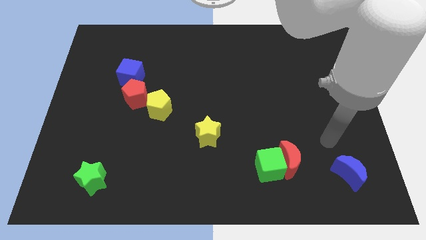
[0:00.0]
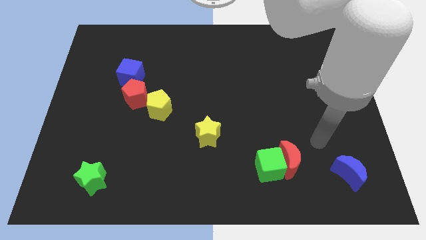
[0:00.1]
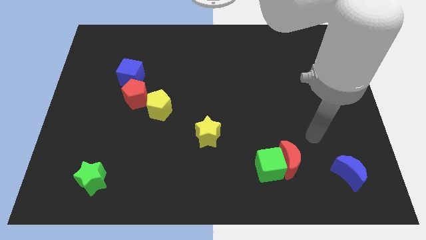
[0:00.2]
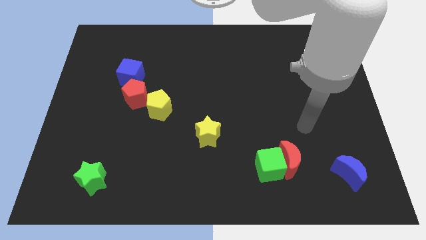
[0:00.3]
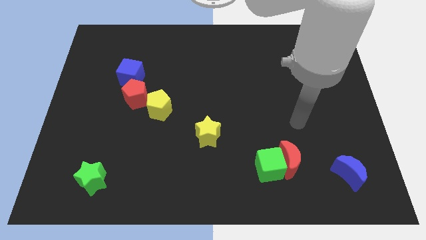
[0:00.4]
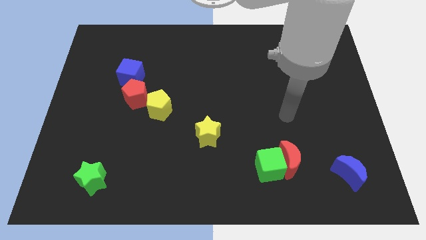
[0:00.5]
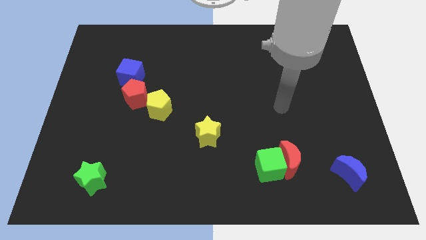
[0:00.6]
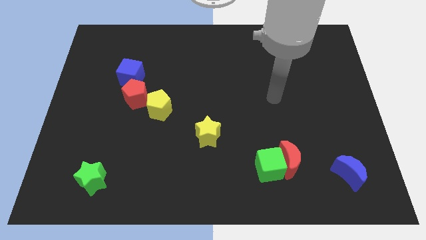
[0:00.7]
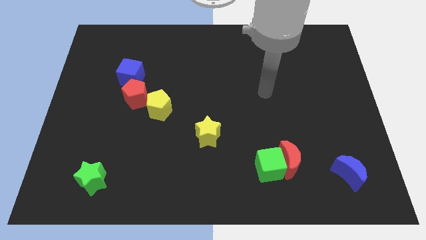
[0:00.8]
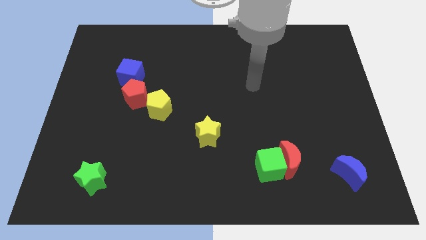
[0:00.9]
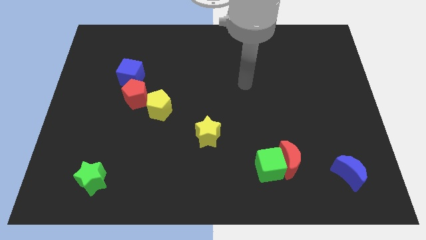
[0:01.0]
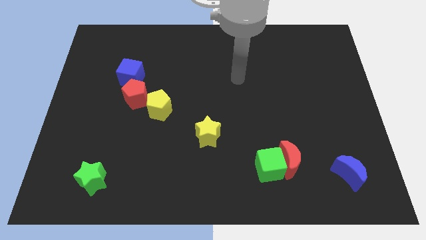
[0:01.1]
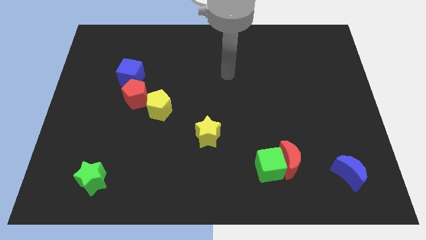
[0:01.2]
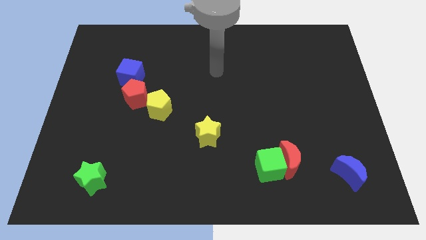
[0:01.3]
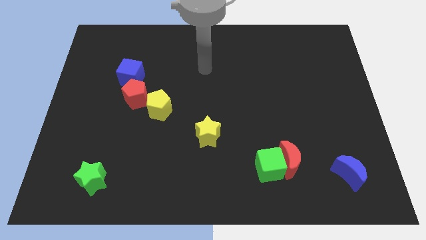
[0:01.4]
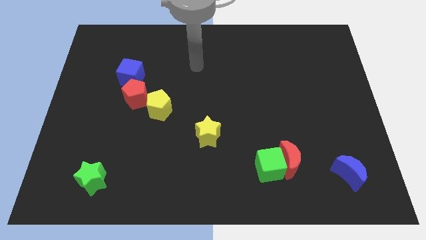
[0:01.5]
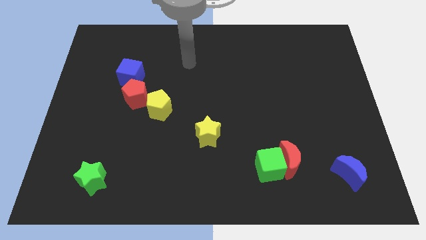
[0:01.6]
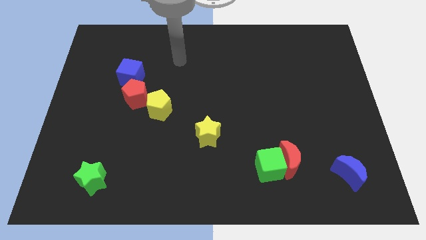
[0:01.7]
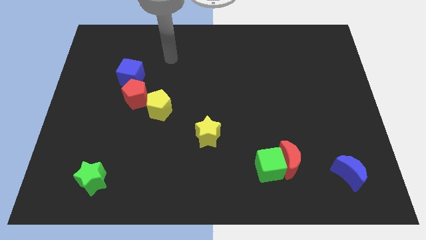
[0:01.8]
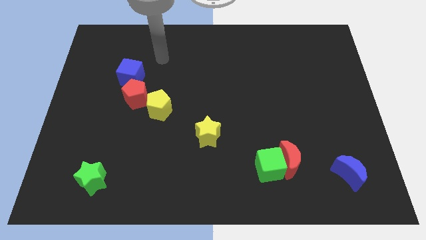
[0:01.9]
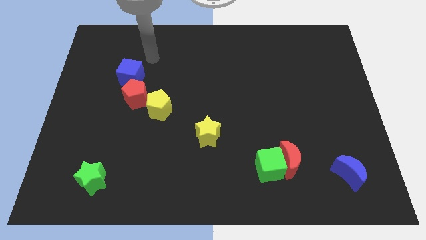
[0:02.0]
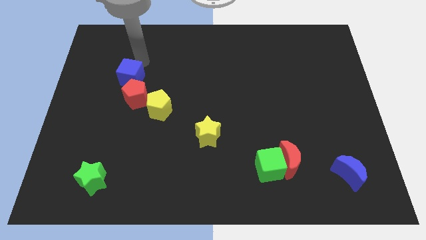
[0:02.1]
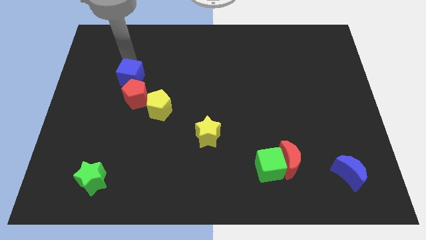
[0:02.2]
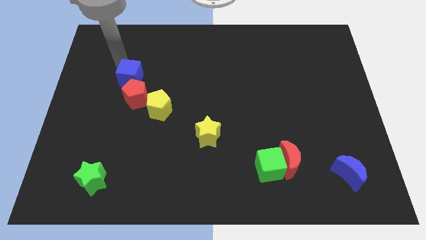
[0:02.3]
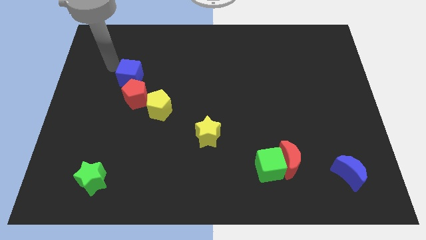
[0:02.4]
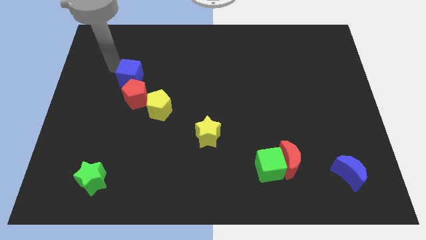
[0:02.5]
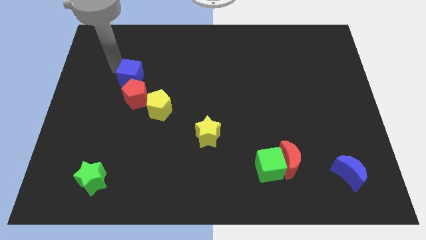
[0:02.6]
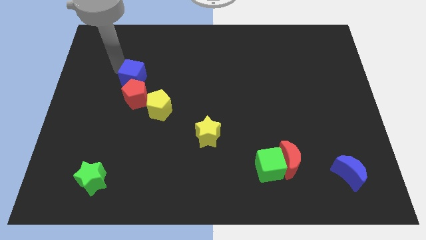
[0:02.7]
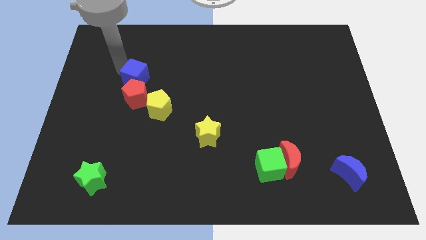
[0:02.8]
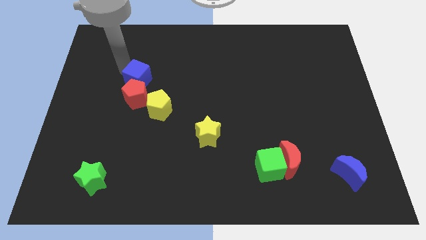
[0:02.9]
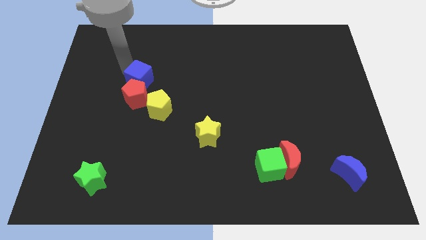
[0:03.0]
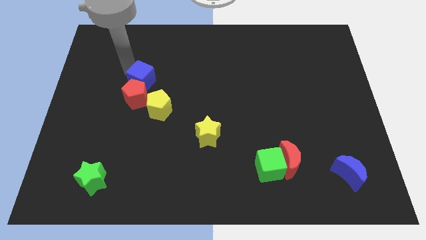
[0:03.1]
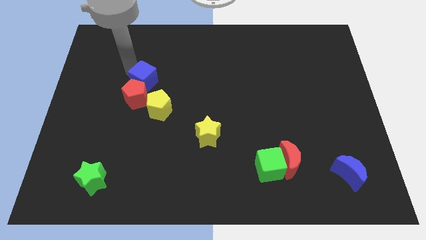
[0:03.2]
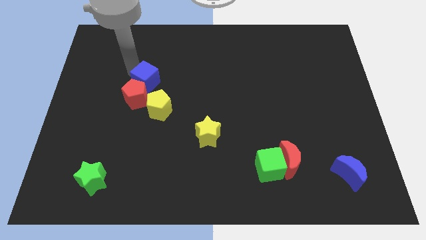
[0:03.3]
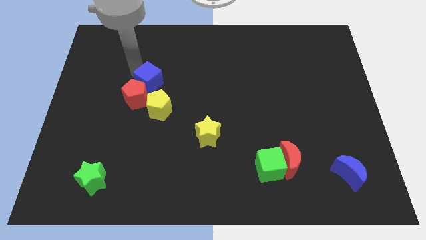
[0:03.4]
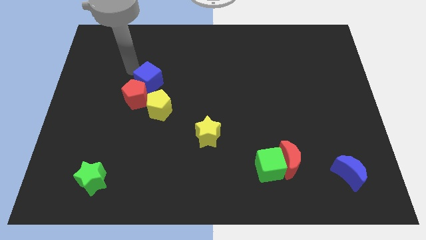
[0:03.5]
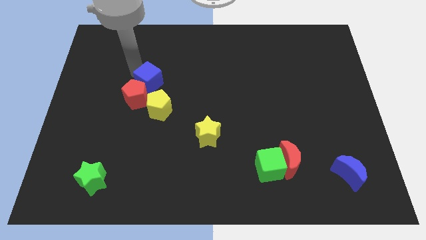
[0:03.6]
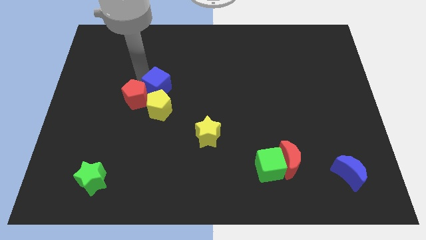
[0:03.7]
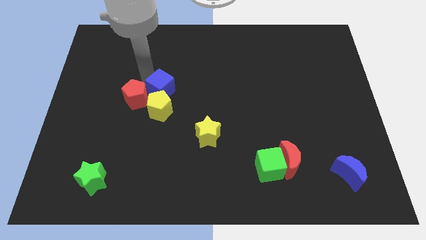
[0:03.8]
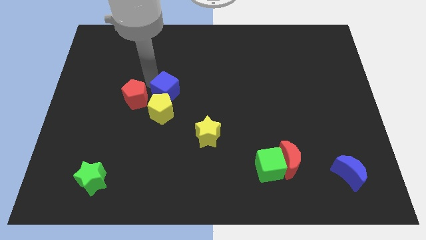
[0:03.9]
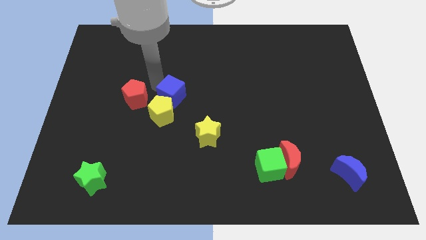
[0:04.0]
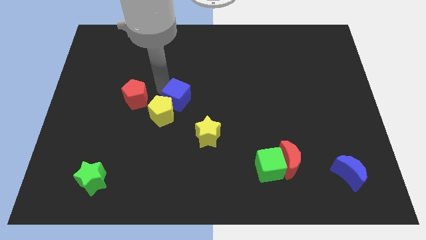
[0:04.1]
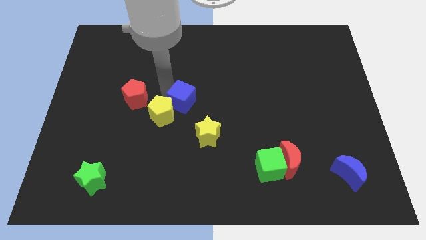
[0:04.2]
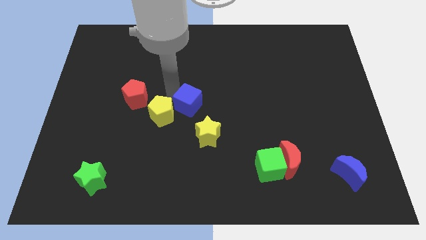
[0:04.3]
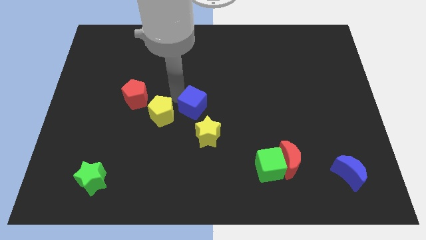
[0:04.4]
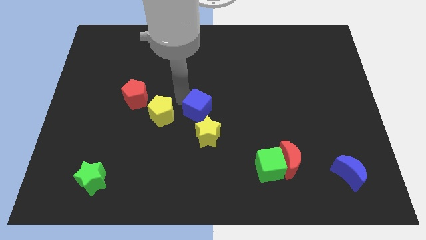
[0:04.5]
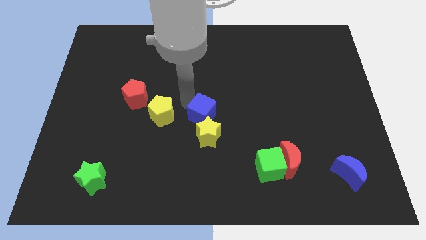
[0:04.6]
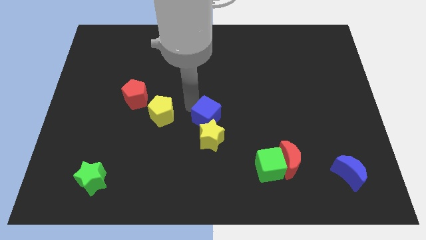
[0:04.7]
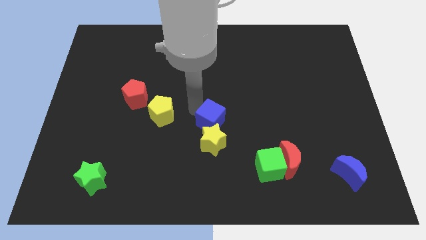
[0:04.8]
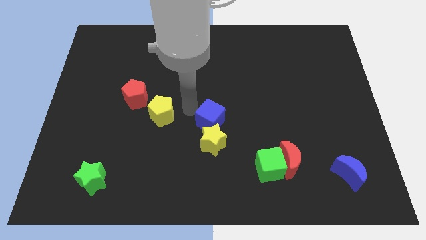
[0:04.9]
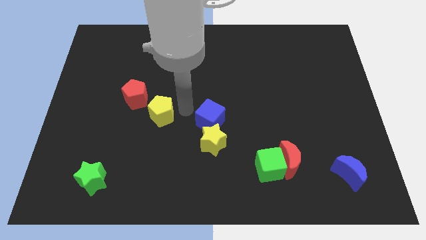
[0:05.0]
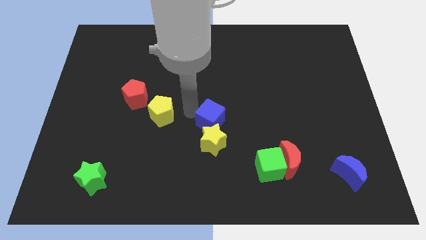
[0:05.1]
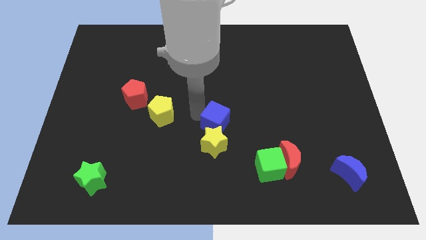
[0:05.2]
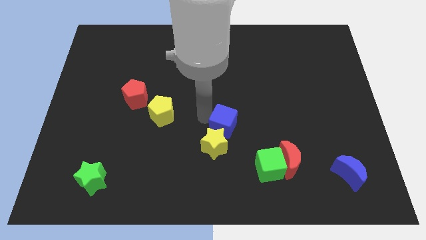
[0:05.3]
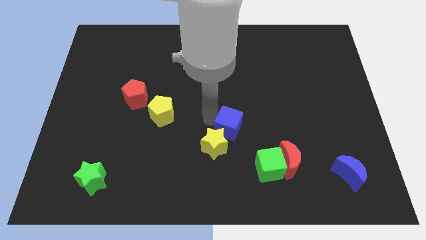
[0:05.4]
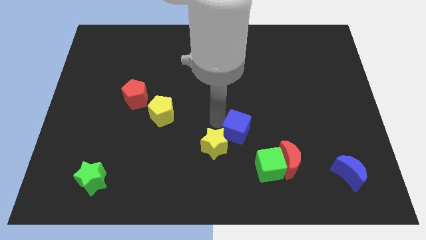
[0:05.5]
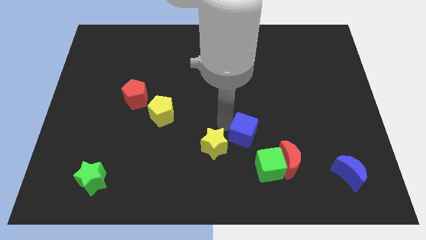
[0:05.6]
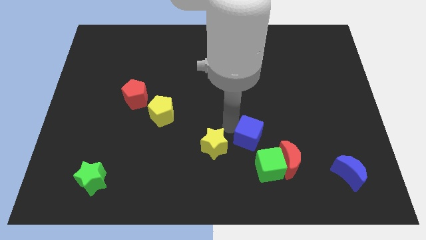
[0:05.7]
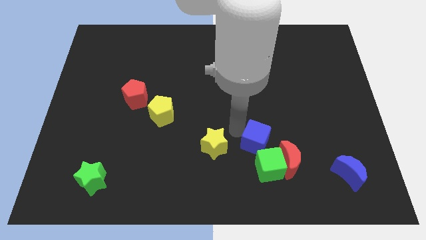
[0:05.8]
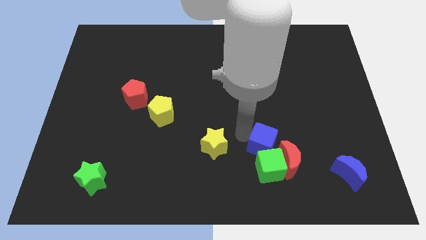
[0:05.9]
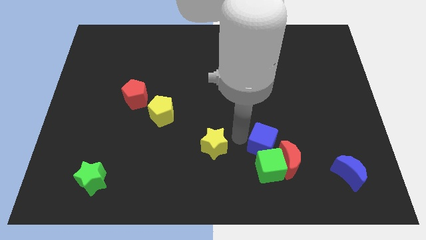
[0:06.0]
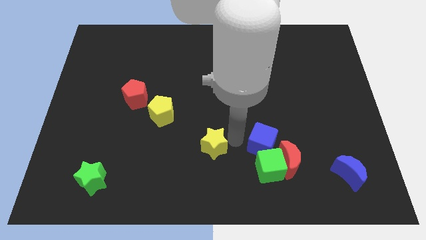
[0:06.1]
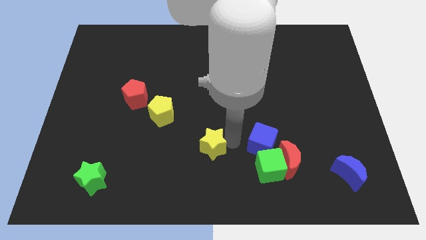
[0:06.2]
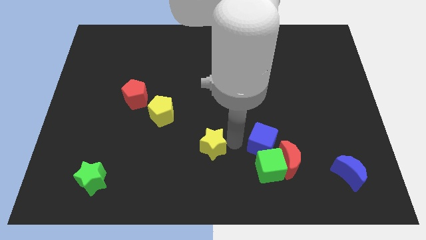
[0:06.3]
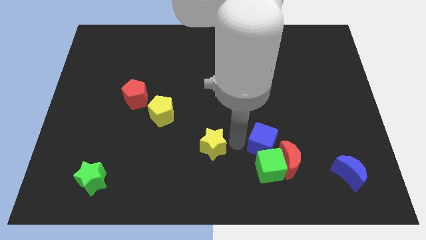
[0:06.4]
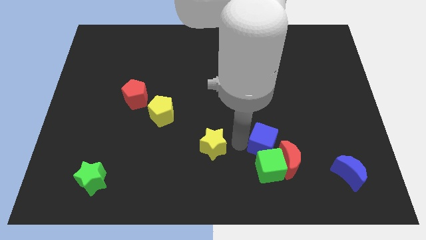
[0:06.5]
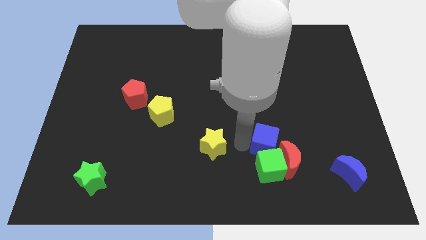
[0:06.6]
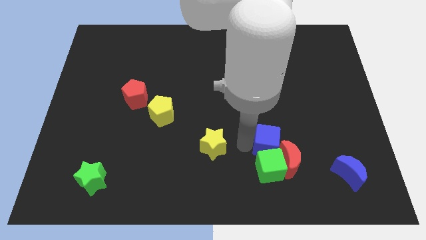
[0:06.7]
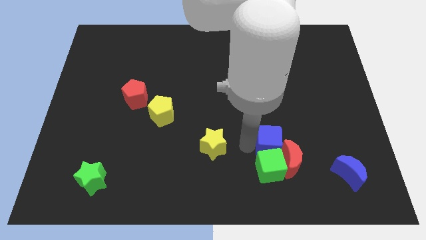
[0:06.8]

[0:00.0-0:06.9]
move the blue cube next to the red moon
